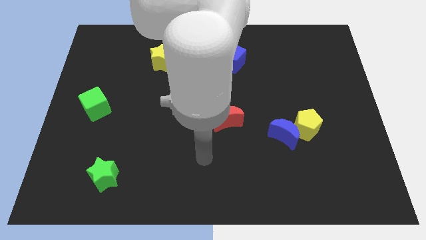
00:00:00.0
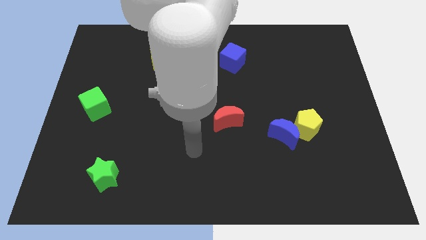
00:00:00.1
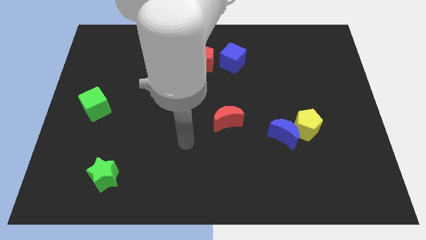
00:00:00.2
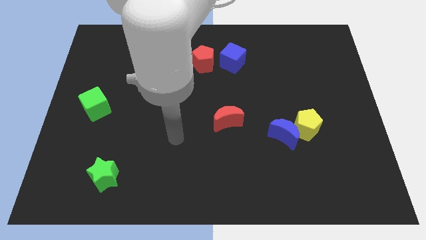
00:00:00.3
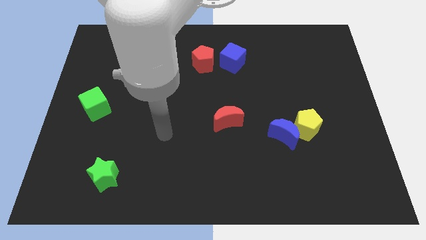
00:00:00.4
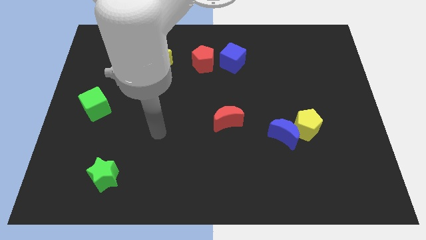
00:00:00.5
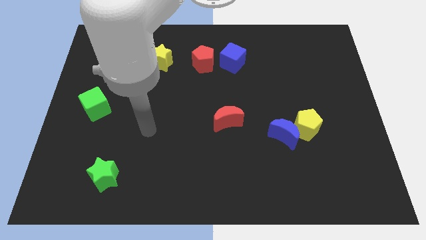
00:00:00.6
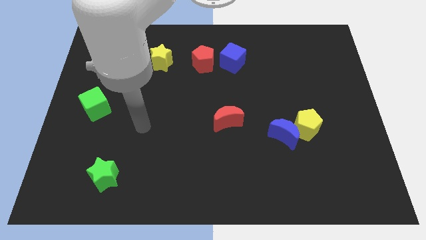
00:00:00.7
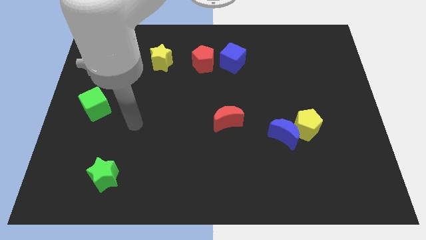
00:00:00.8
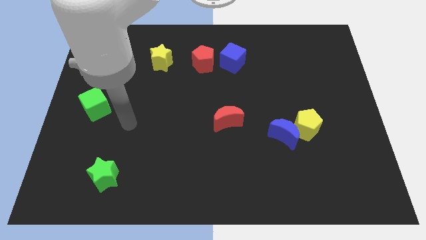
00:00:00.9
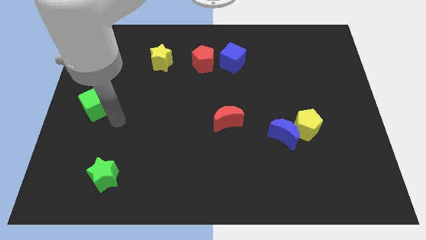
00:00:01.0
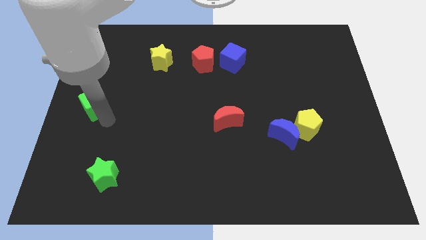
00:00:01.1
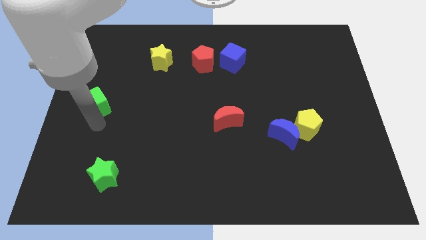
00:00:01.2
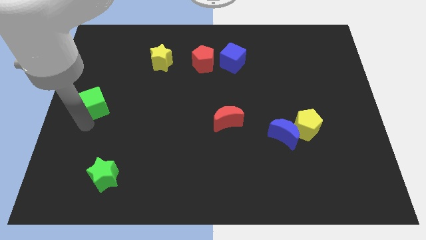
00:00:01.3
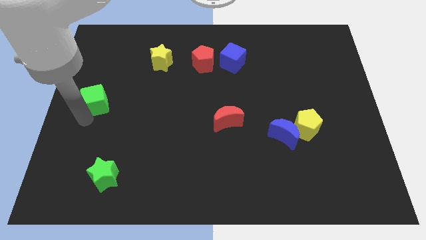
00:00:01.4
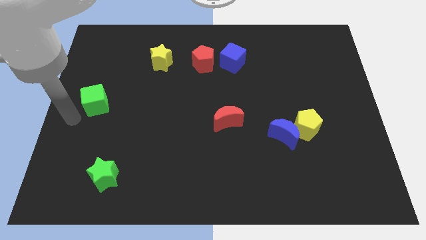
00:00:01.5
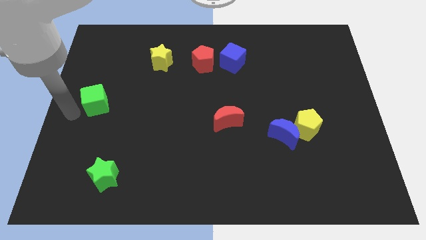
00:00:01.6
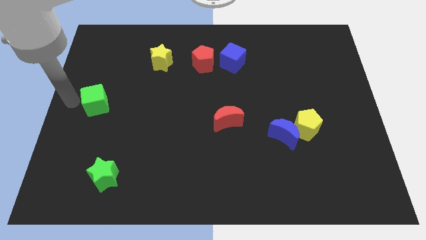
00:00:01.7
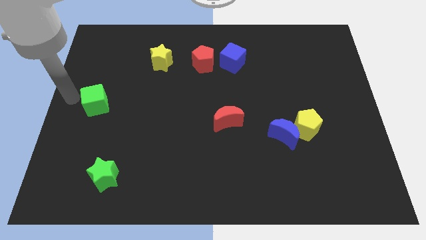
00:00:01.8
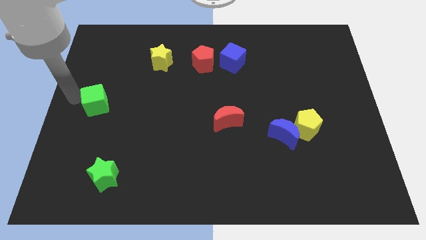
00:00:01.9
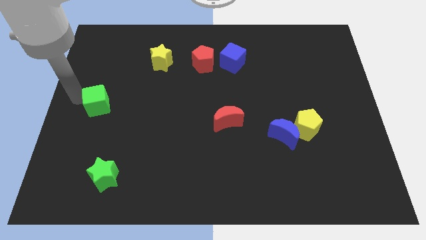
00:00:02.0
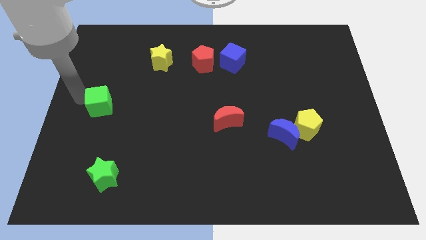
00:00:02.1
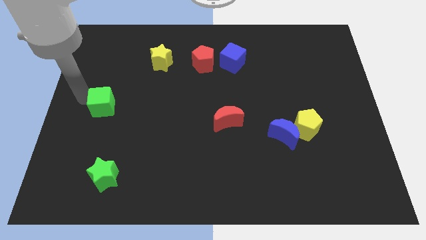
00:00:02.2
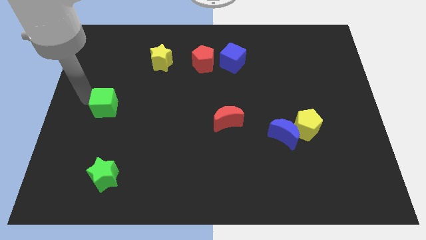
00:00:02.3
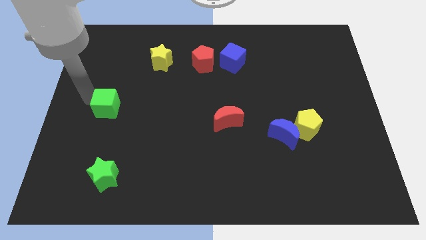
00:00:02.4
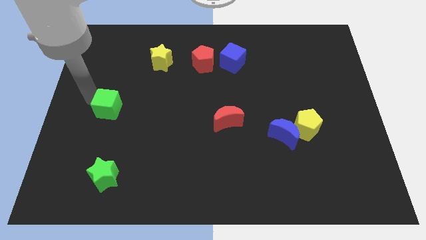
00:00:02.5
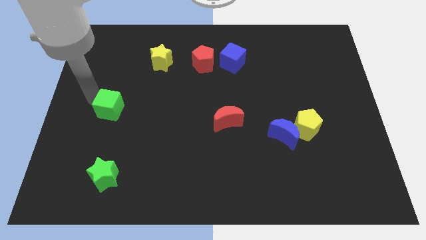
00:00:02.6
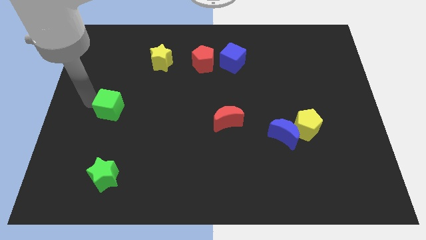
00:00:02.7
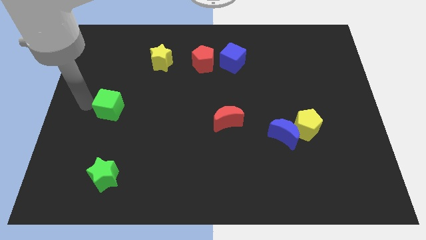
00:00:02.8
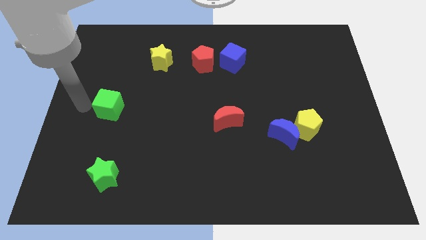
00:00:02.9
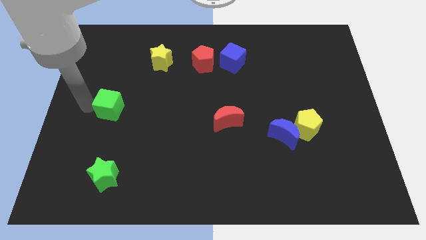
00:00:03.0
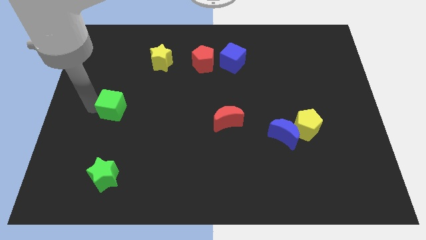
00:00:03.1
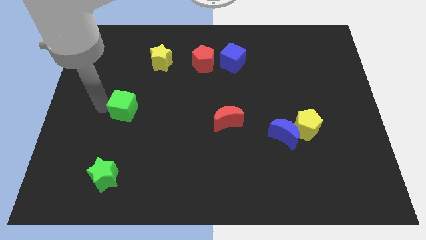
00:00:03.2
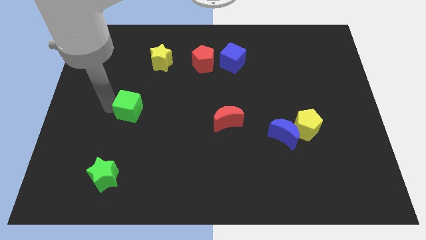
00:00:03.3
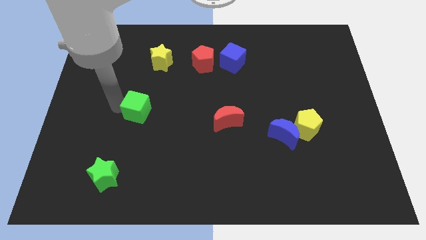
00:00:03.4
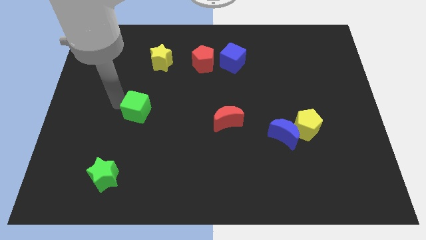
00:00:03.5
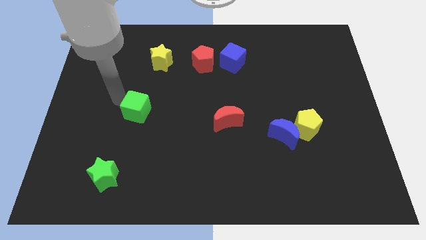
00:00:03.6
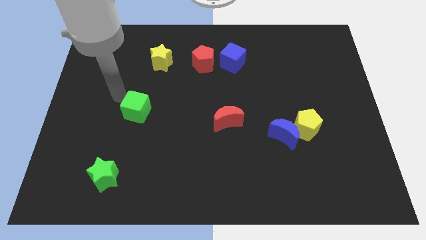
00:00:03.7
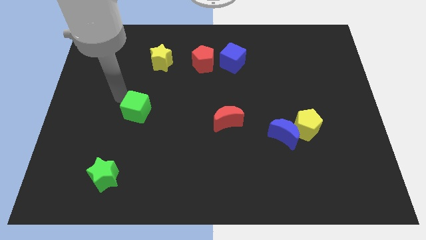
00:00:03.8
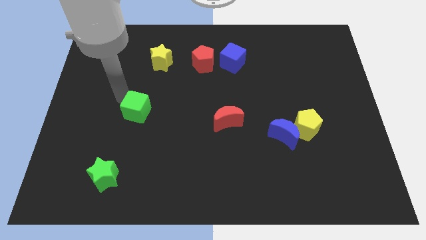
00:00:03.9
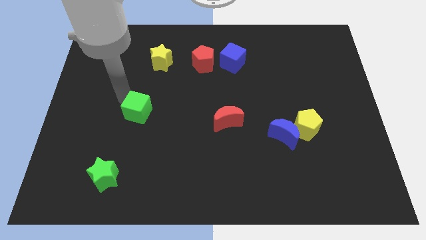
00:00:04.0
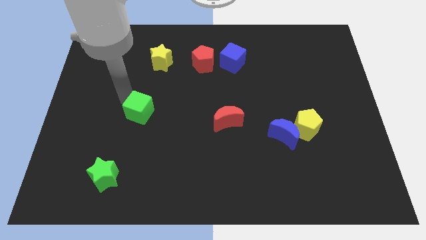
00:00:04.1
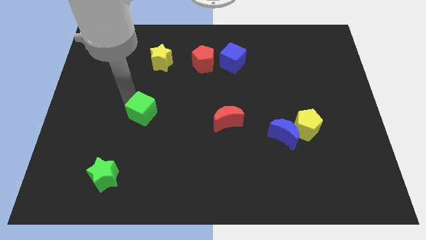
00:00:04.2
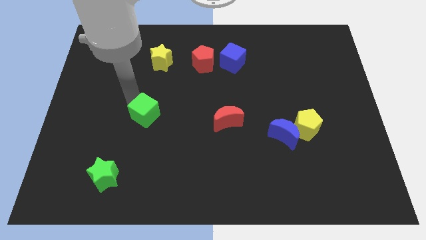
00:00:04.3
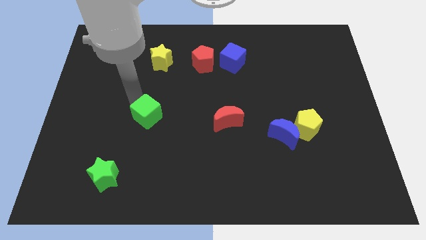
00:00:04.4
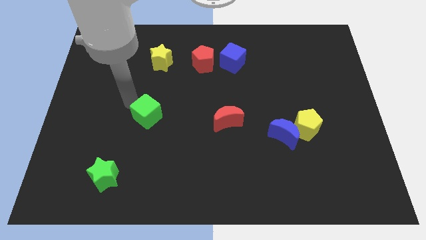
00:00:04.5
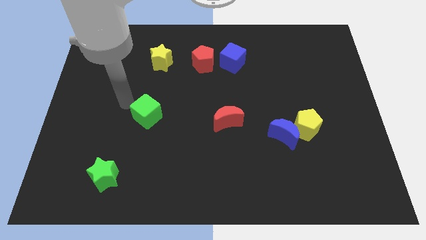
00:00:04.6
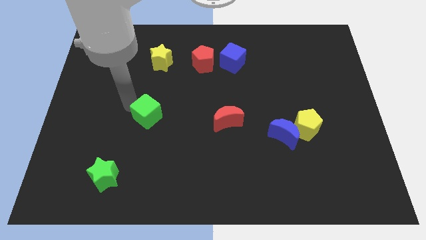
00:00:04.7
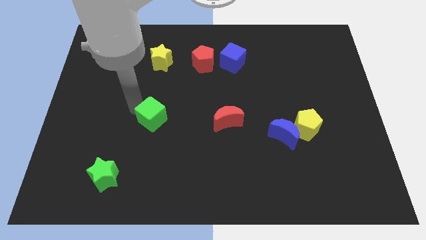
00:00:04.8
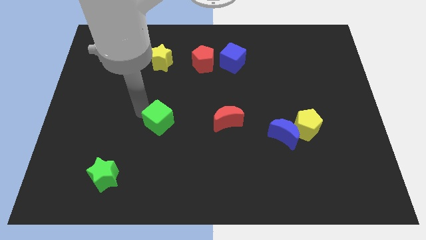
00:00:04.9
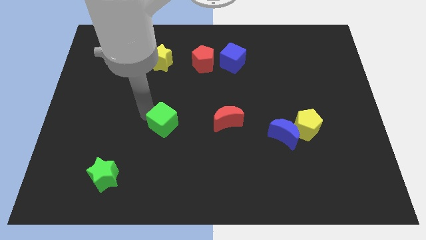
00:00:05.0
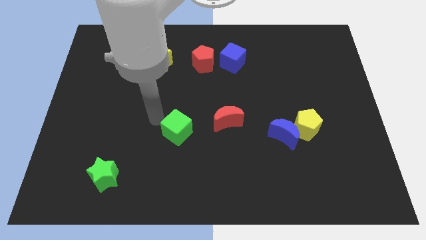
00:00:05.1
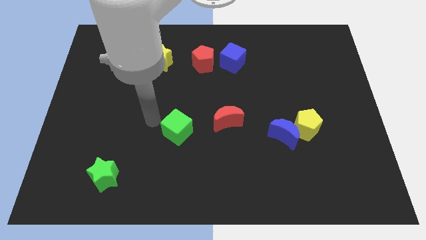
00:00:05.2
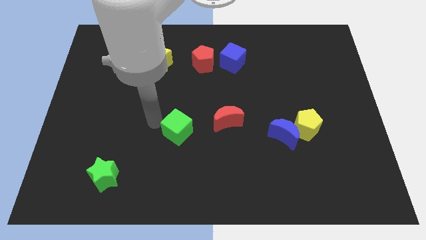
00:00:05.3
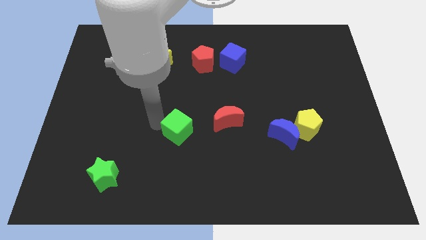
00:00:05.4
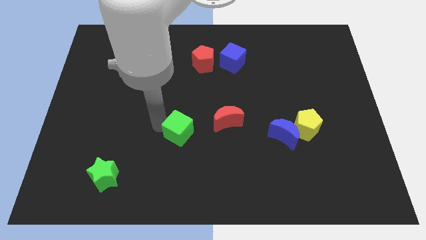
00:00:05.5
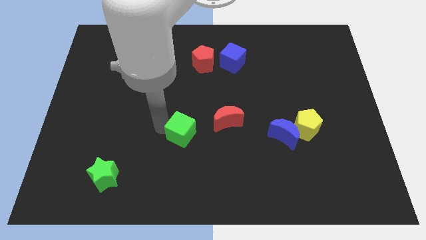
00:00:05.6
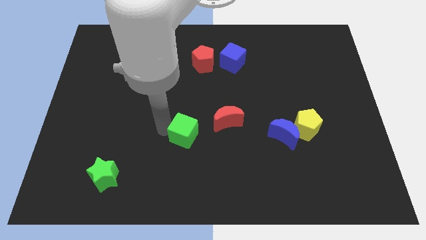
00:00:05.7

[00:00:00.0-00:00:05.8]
move the green cube diagonally down and to the left of the red moon

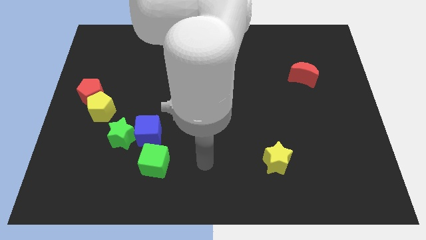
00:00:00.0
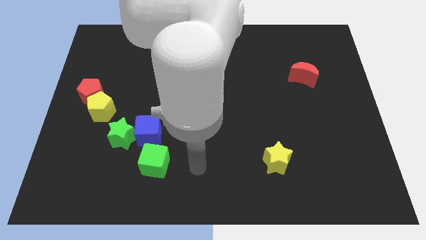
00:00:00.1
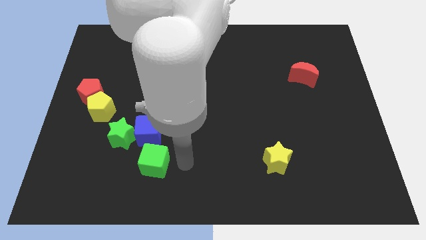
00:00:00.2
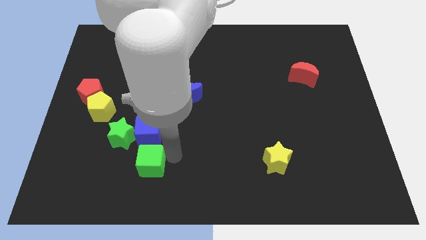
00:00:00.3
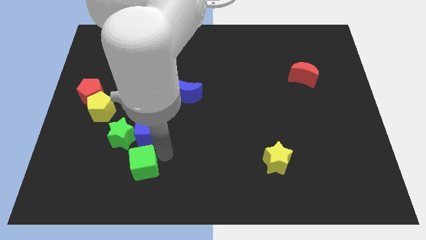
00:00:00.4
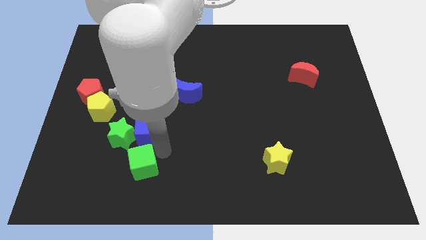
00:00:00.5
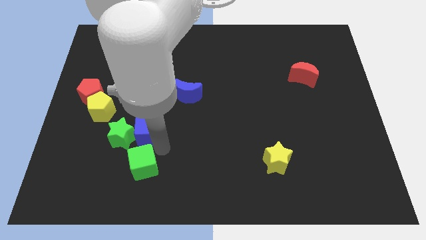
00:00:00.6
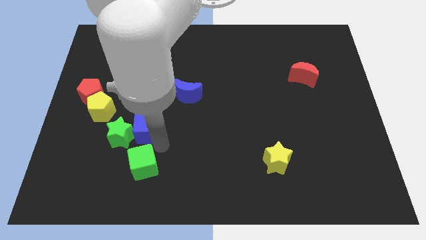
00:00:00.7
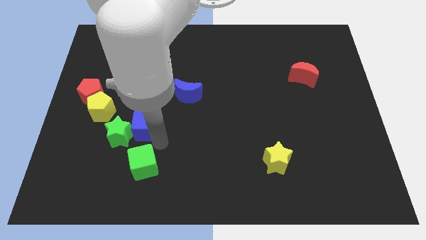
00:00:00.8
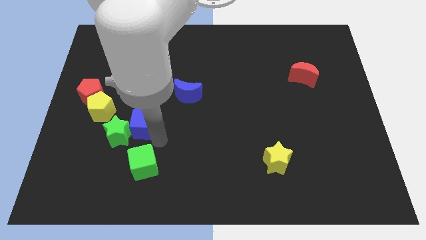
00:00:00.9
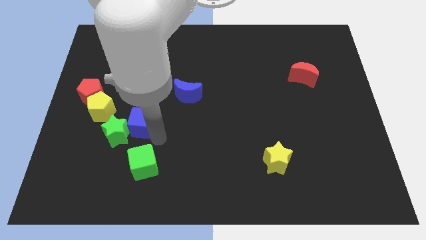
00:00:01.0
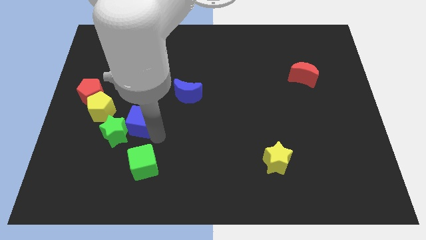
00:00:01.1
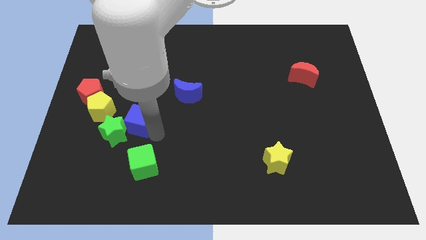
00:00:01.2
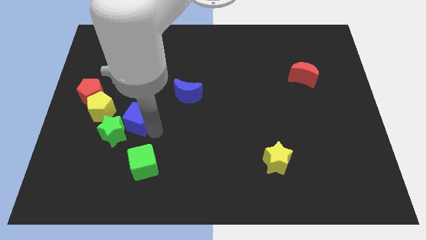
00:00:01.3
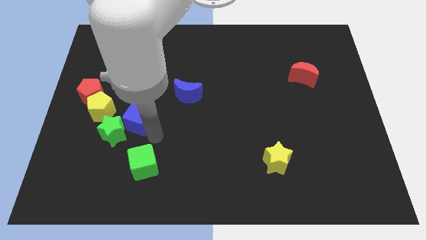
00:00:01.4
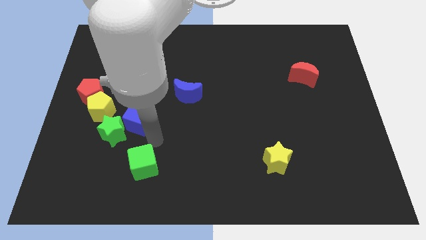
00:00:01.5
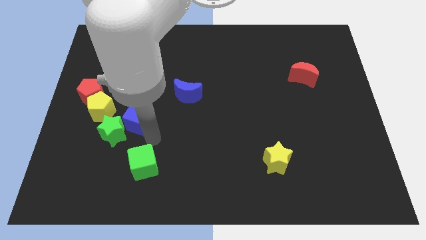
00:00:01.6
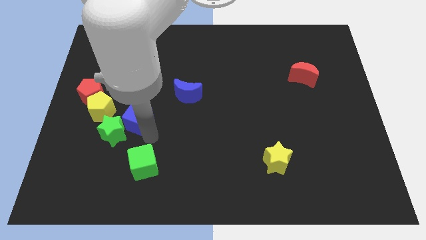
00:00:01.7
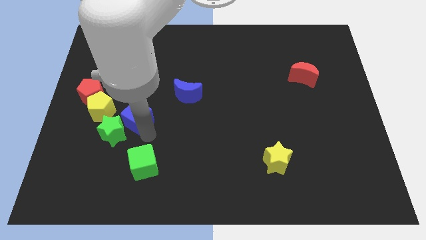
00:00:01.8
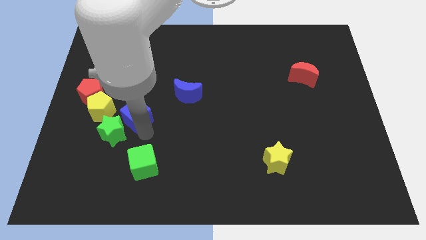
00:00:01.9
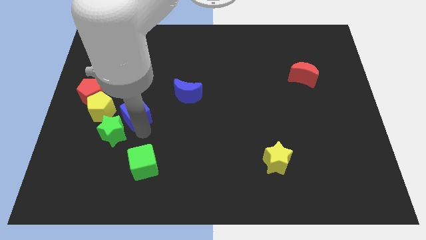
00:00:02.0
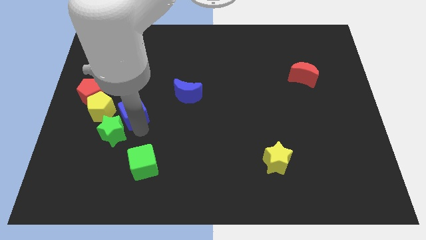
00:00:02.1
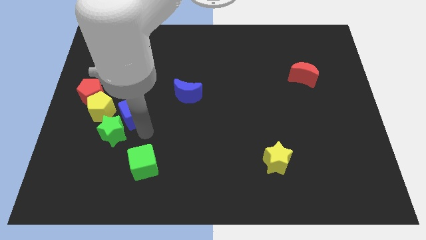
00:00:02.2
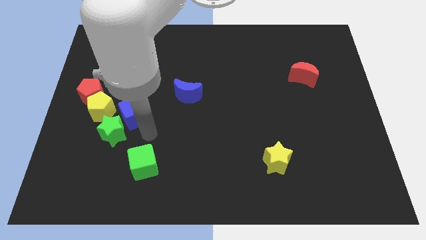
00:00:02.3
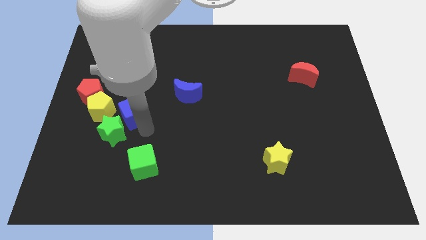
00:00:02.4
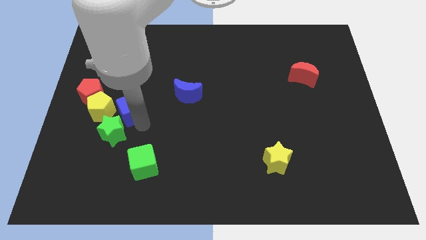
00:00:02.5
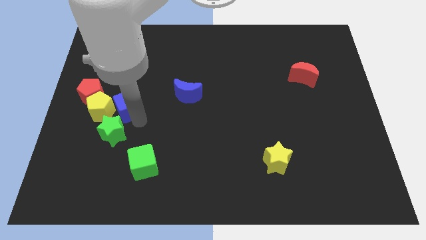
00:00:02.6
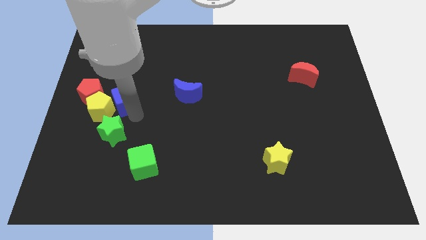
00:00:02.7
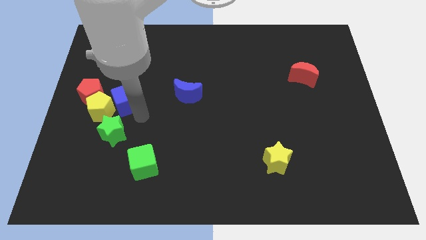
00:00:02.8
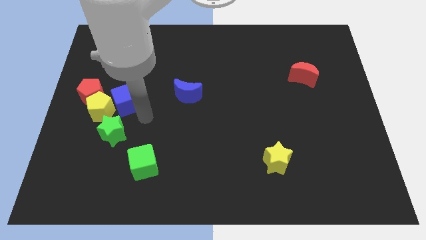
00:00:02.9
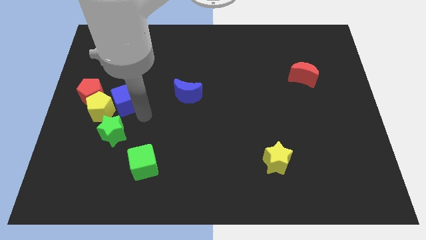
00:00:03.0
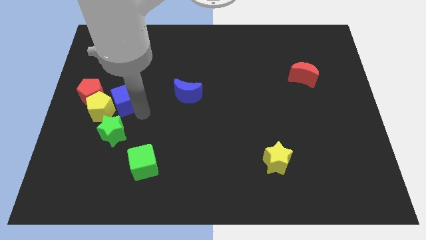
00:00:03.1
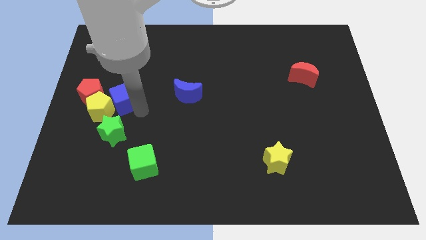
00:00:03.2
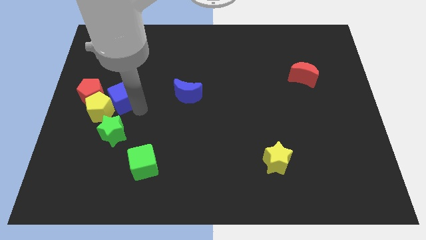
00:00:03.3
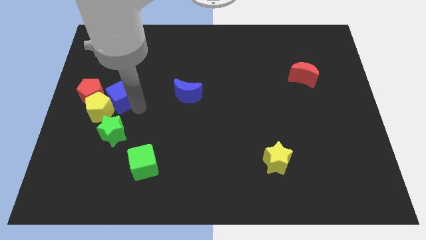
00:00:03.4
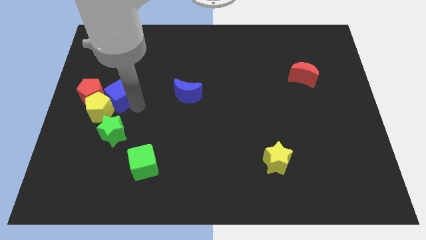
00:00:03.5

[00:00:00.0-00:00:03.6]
push the blue cube to the top of the yellow pentagon
